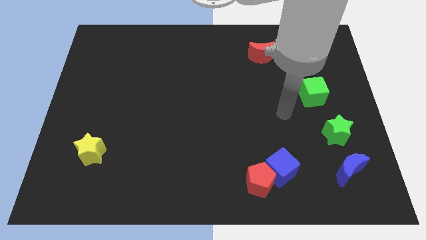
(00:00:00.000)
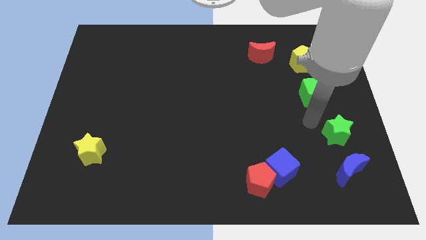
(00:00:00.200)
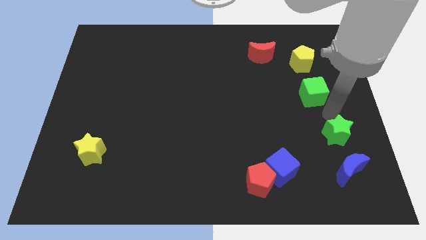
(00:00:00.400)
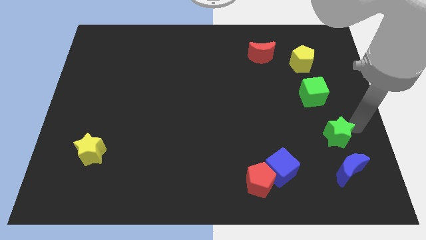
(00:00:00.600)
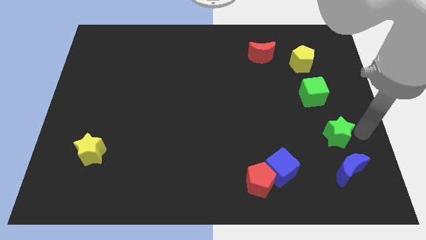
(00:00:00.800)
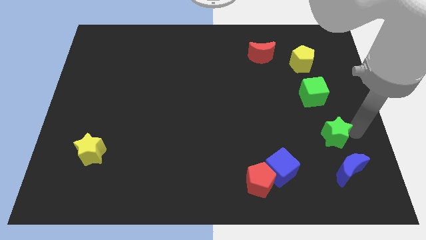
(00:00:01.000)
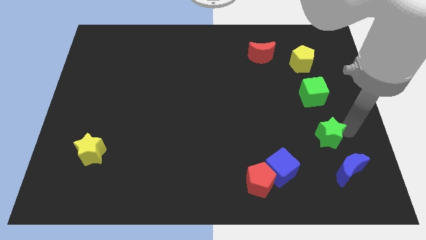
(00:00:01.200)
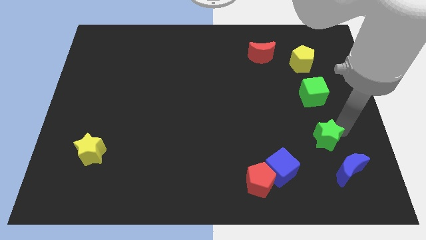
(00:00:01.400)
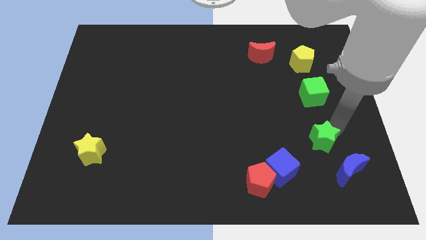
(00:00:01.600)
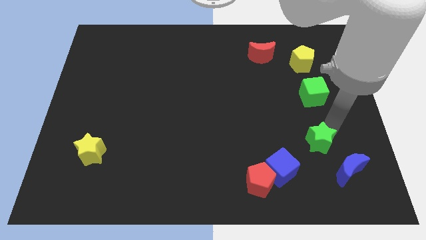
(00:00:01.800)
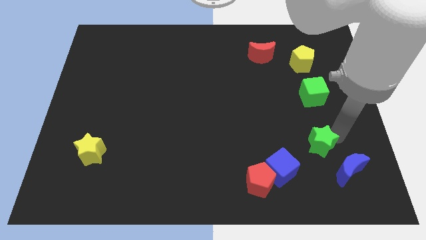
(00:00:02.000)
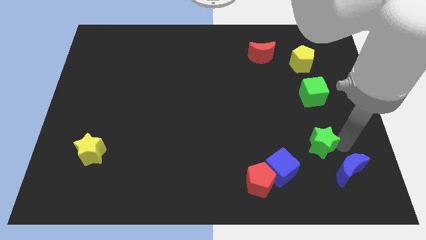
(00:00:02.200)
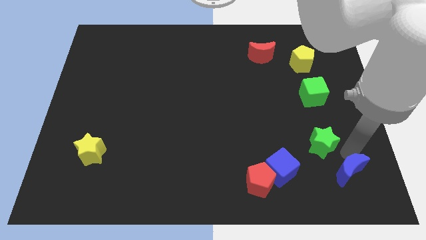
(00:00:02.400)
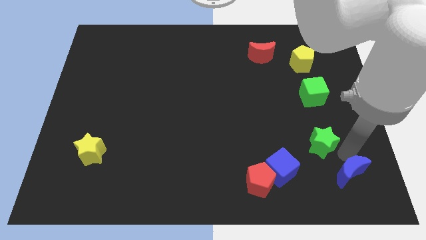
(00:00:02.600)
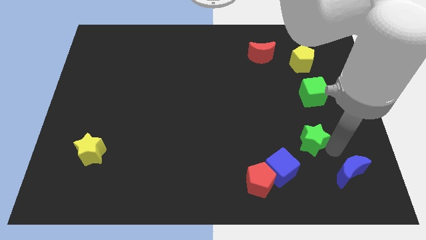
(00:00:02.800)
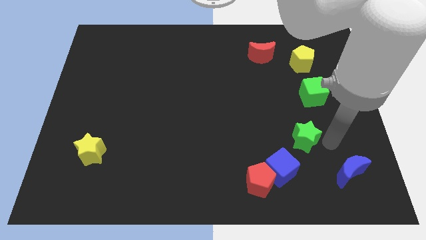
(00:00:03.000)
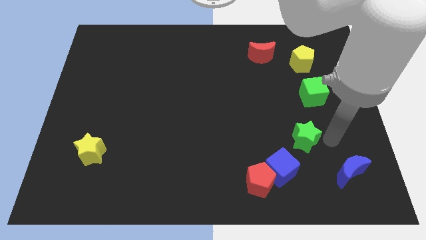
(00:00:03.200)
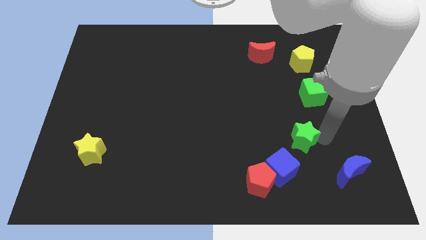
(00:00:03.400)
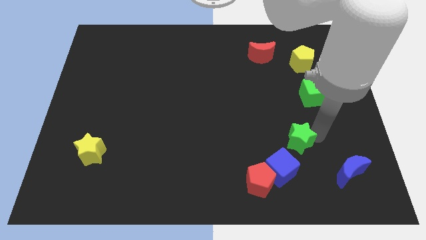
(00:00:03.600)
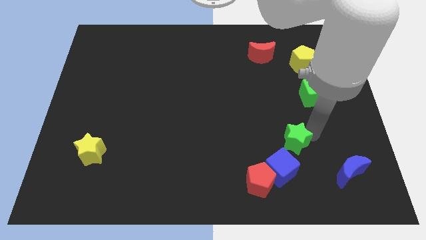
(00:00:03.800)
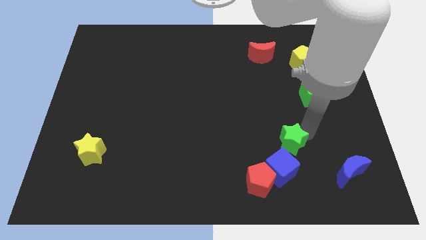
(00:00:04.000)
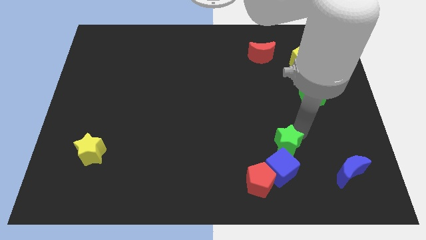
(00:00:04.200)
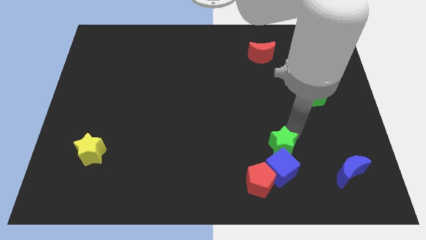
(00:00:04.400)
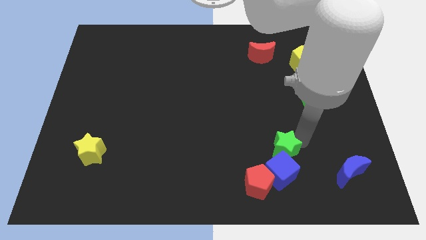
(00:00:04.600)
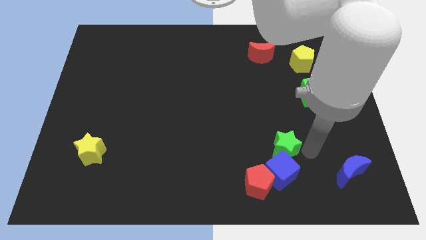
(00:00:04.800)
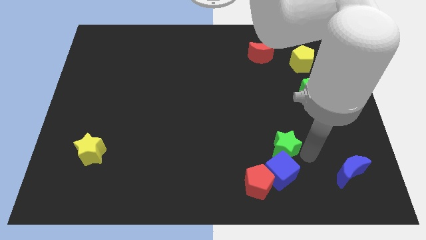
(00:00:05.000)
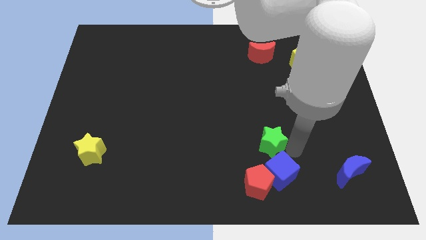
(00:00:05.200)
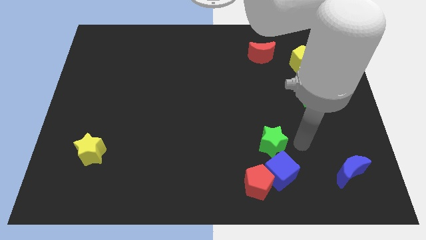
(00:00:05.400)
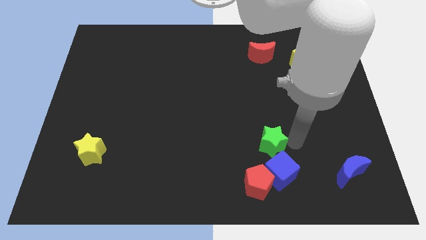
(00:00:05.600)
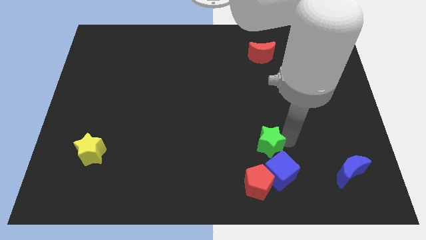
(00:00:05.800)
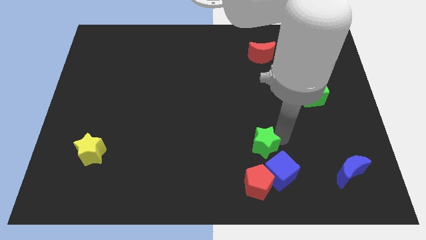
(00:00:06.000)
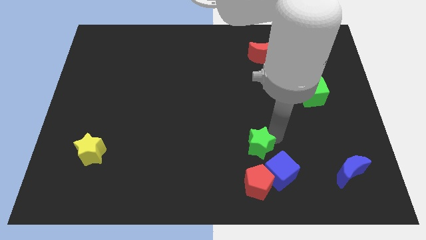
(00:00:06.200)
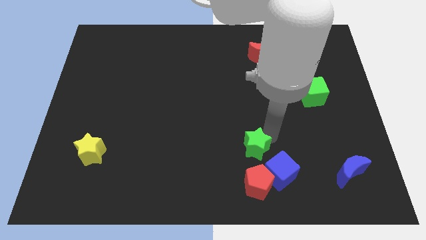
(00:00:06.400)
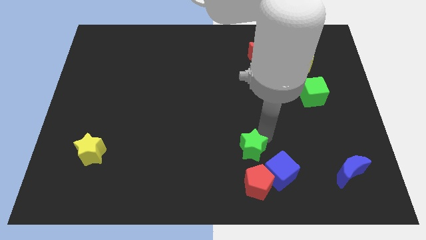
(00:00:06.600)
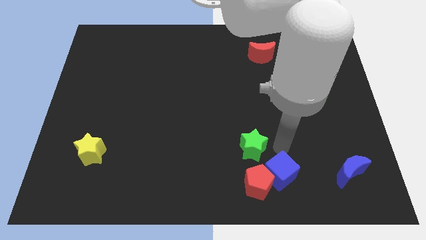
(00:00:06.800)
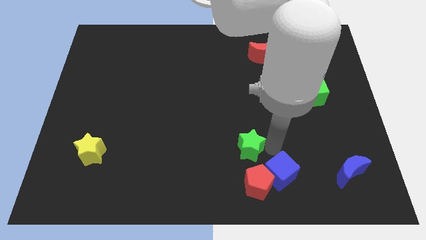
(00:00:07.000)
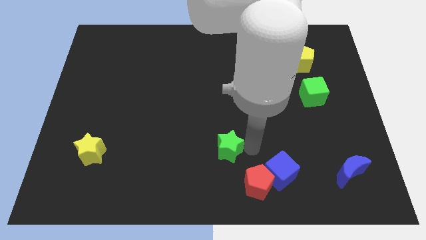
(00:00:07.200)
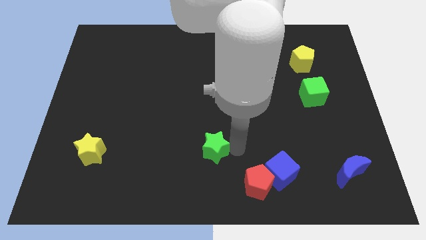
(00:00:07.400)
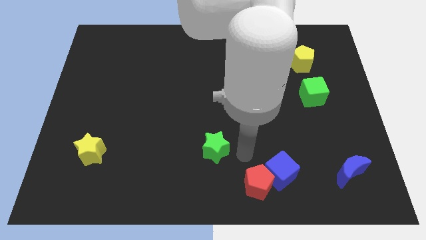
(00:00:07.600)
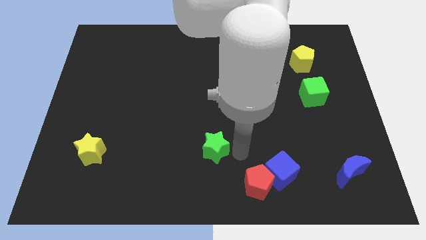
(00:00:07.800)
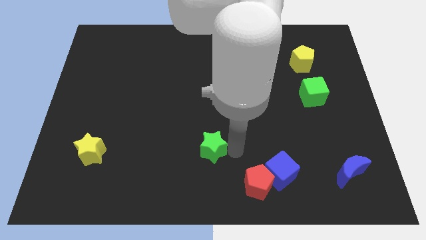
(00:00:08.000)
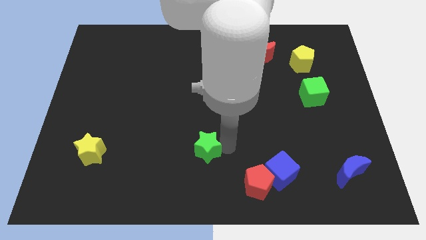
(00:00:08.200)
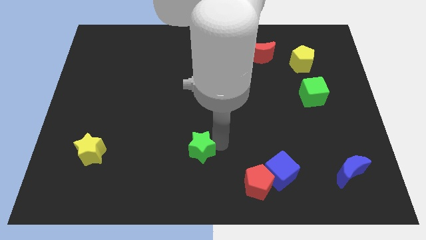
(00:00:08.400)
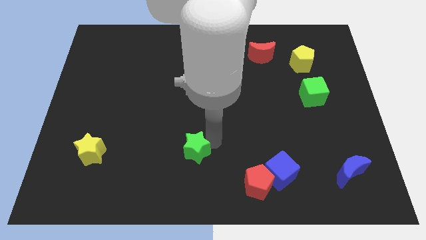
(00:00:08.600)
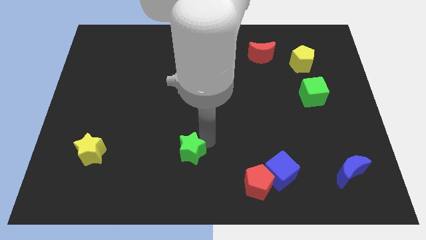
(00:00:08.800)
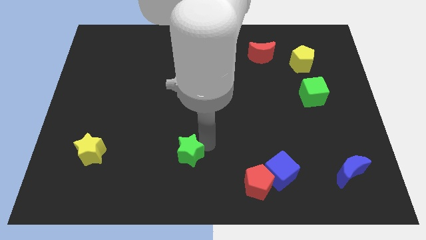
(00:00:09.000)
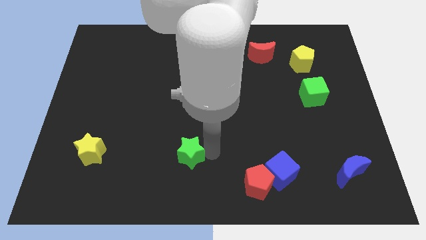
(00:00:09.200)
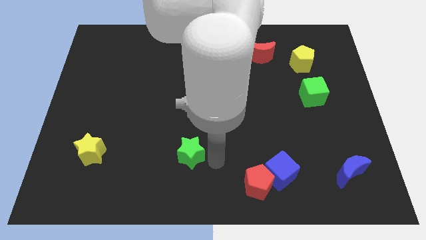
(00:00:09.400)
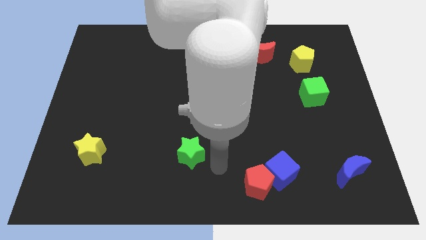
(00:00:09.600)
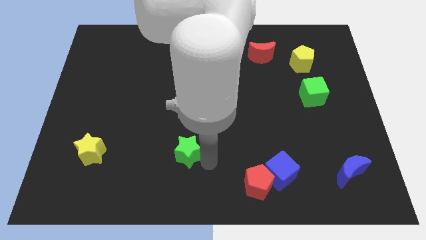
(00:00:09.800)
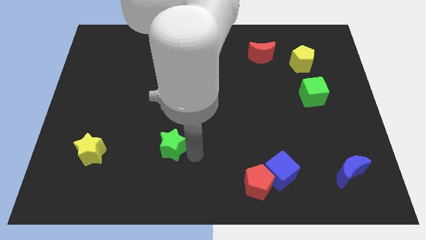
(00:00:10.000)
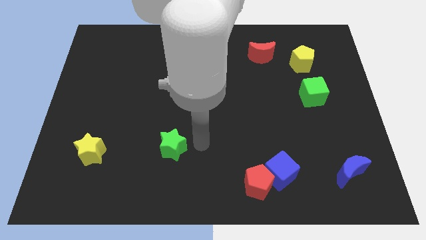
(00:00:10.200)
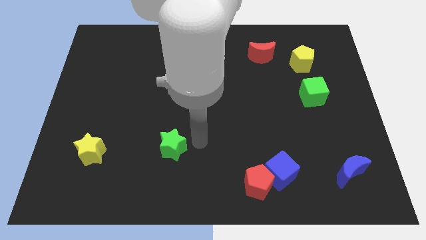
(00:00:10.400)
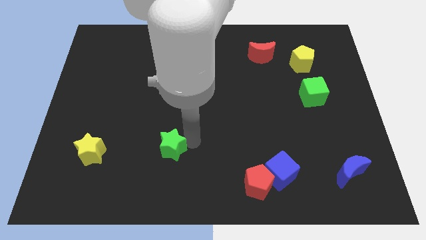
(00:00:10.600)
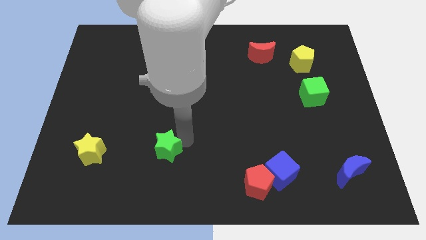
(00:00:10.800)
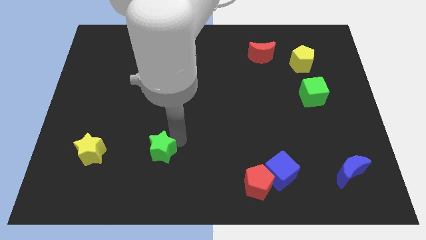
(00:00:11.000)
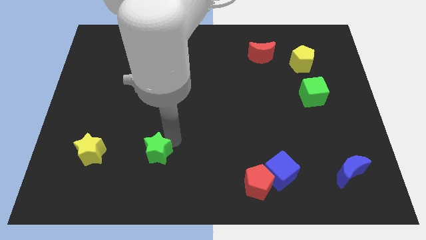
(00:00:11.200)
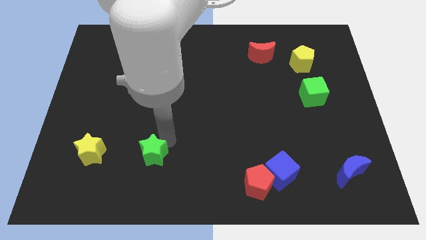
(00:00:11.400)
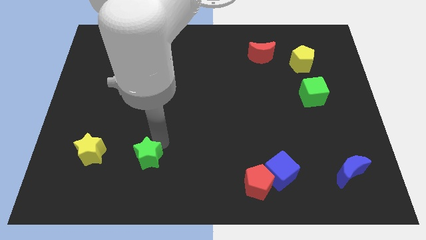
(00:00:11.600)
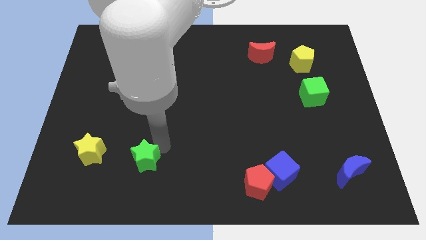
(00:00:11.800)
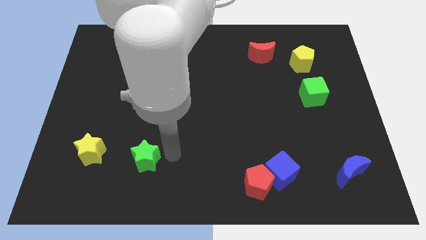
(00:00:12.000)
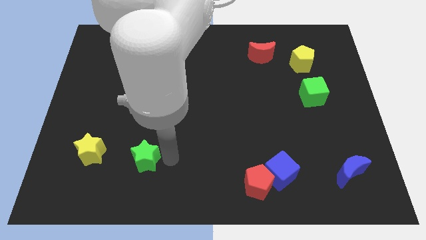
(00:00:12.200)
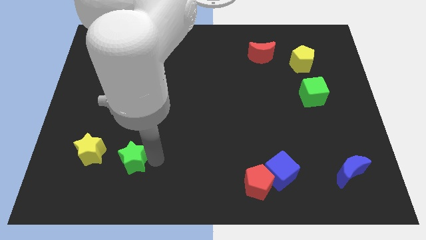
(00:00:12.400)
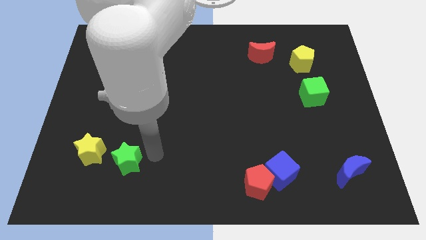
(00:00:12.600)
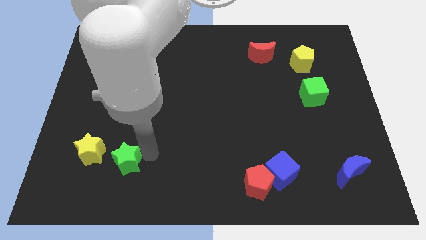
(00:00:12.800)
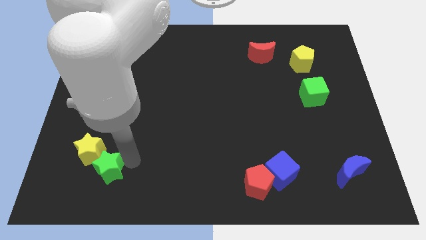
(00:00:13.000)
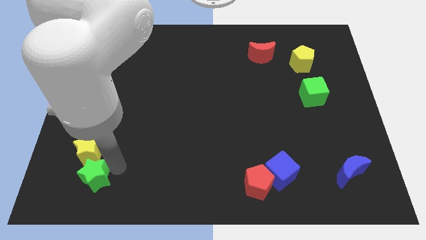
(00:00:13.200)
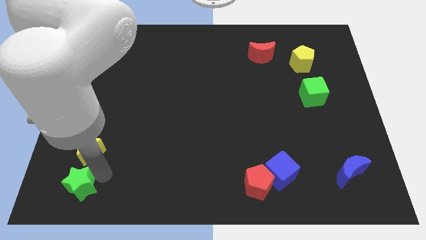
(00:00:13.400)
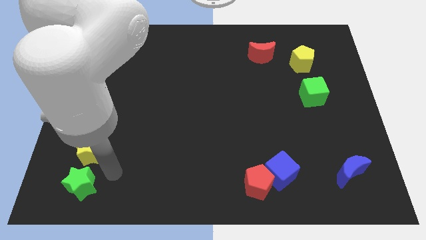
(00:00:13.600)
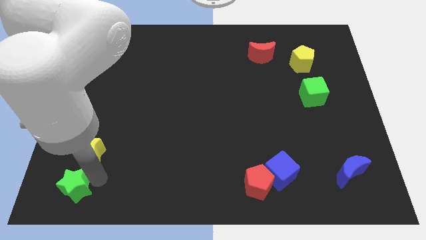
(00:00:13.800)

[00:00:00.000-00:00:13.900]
slide the green star to the lower left corner
